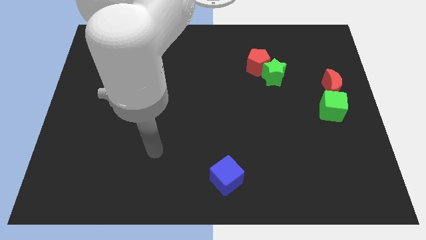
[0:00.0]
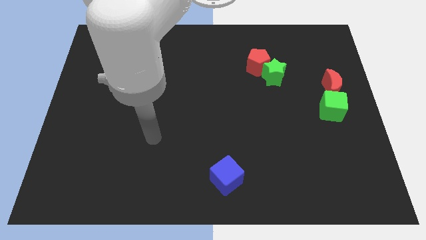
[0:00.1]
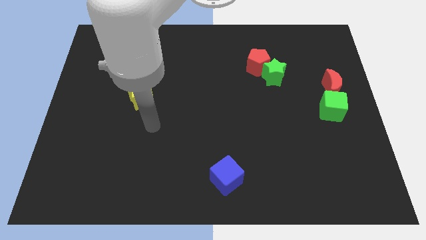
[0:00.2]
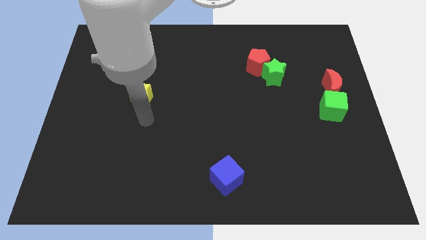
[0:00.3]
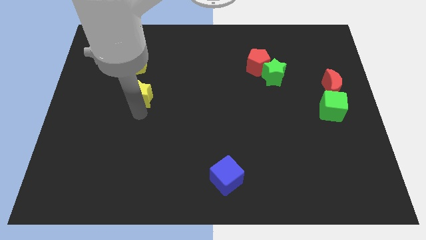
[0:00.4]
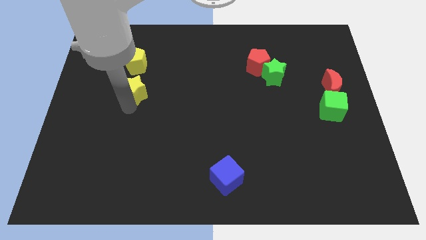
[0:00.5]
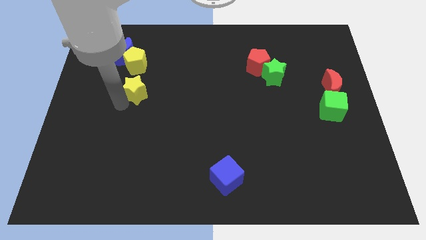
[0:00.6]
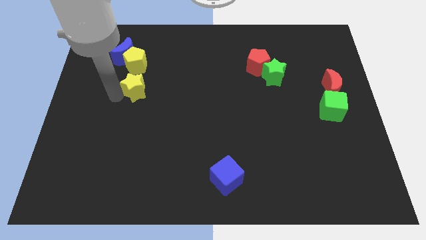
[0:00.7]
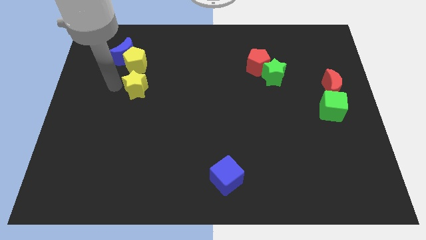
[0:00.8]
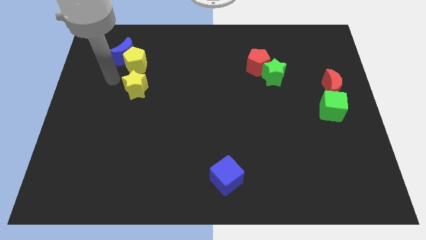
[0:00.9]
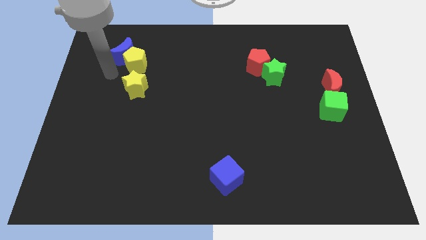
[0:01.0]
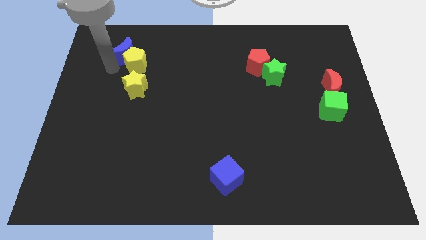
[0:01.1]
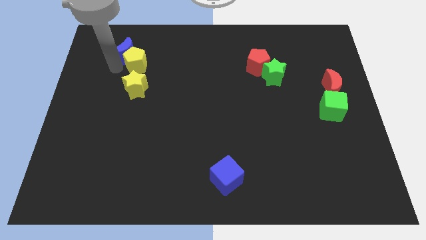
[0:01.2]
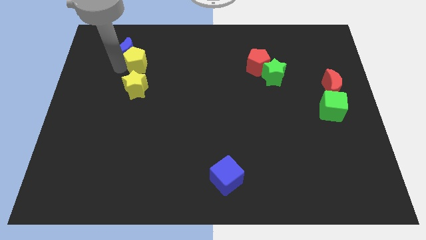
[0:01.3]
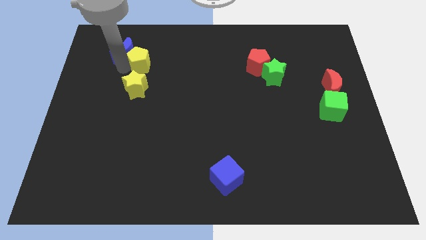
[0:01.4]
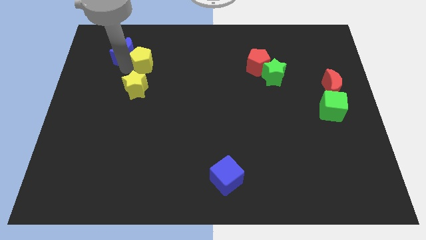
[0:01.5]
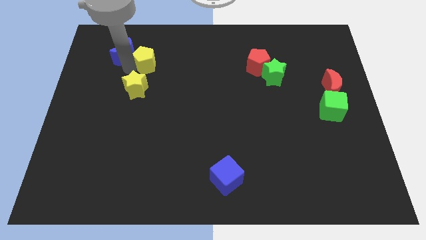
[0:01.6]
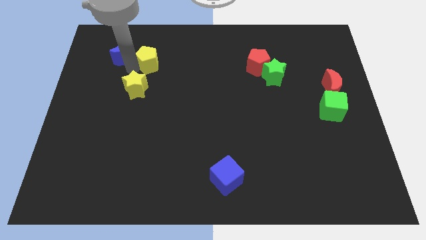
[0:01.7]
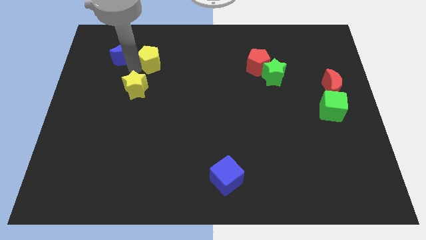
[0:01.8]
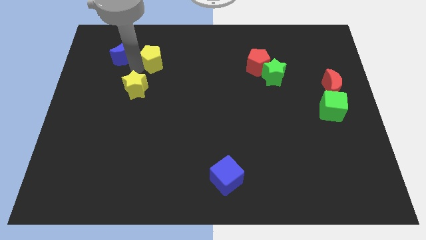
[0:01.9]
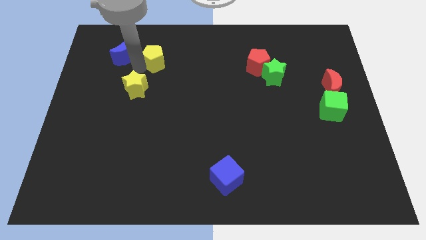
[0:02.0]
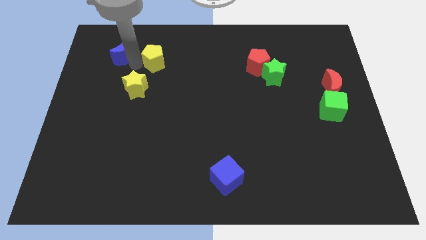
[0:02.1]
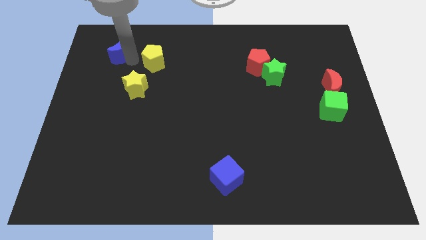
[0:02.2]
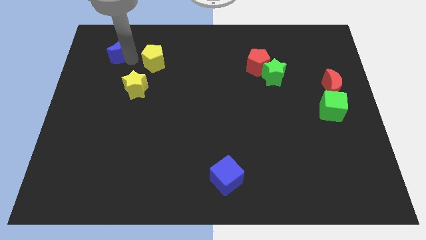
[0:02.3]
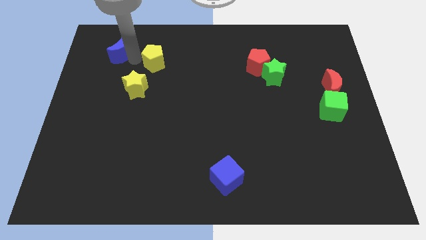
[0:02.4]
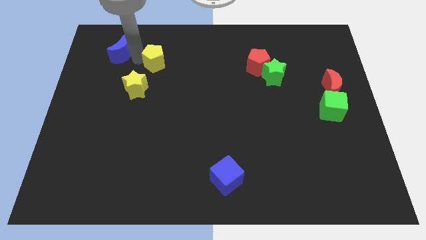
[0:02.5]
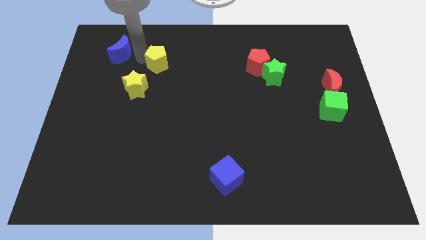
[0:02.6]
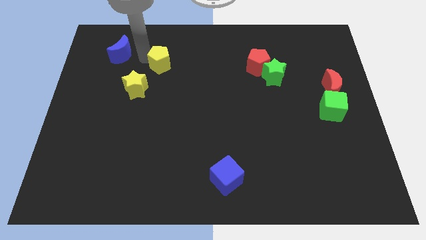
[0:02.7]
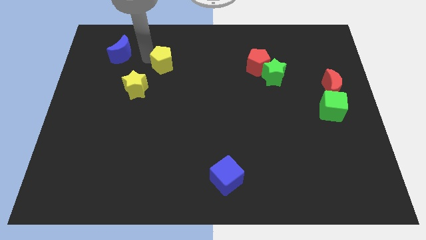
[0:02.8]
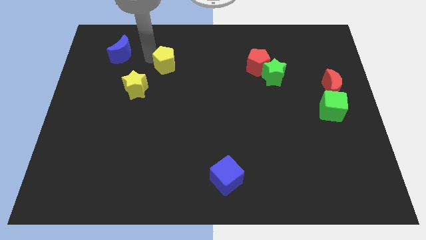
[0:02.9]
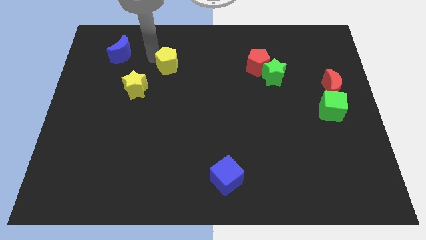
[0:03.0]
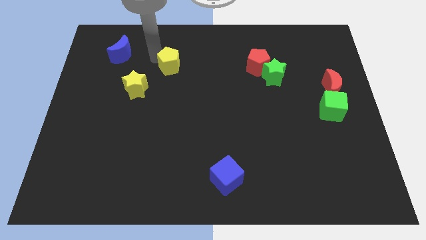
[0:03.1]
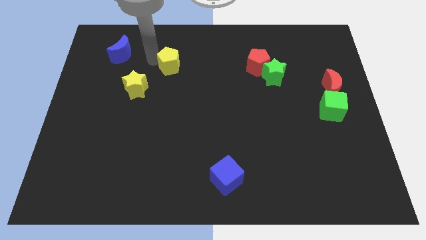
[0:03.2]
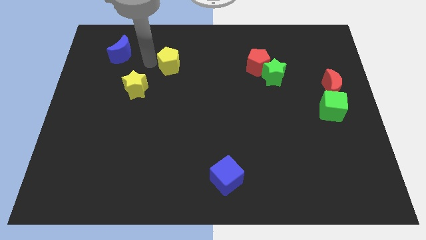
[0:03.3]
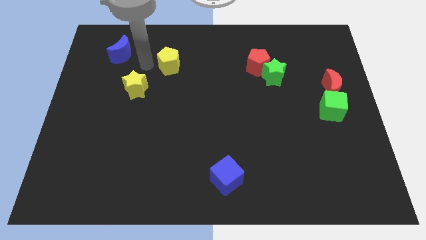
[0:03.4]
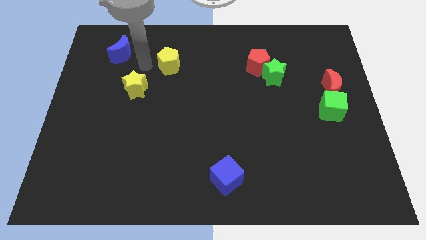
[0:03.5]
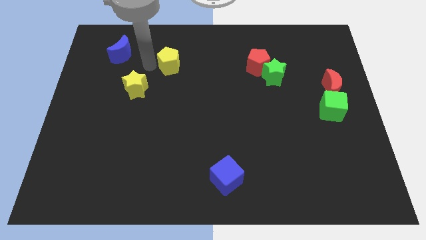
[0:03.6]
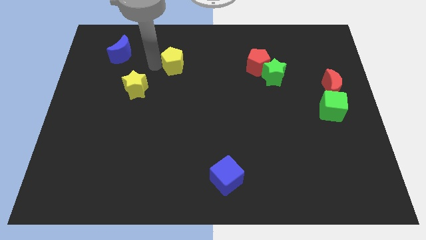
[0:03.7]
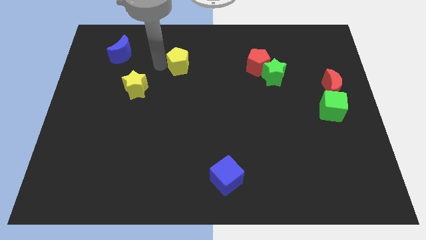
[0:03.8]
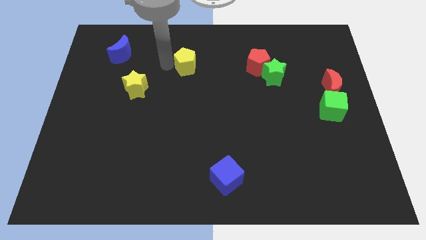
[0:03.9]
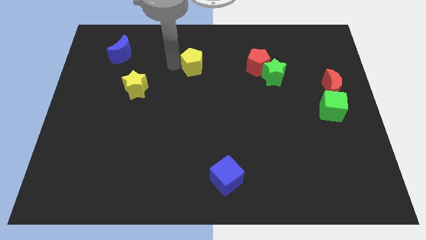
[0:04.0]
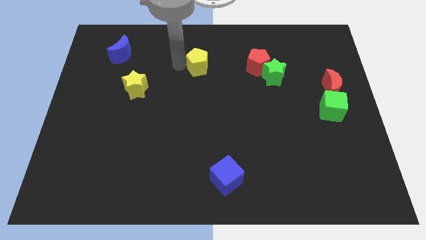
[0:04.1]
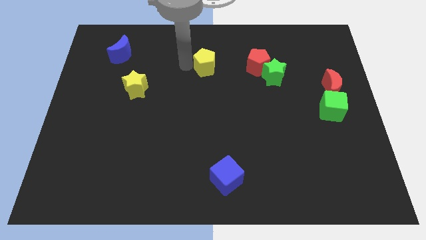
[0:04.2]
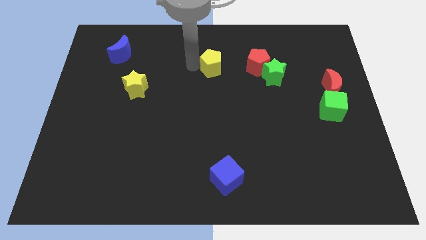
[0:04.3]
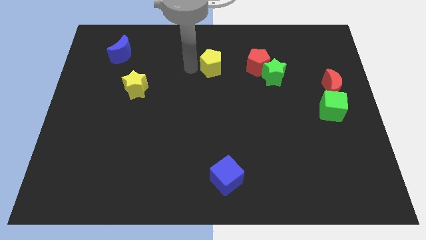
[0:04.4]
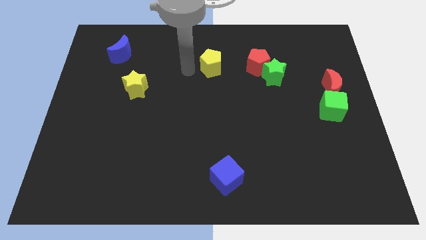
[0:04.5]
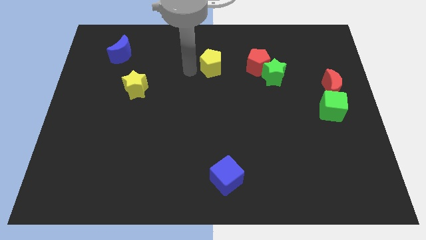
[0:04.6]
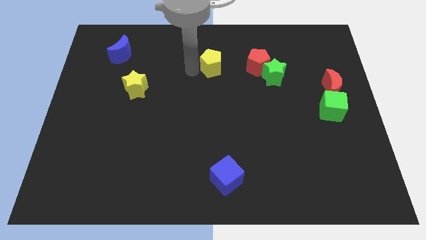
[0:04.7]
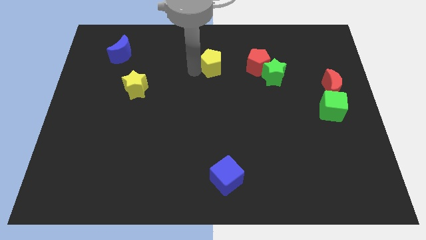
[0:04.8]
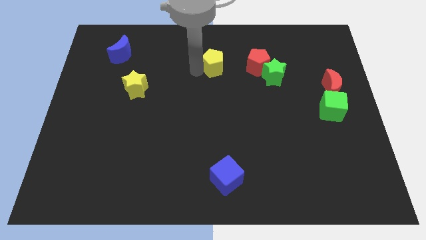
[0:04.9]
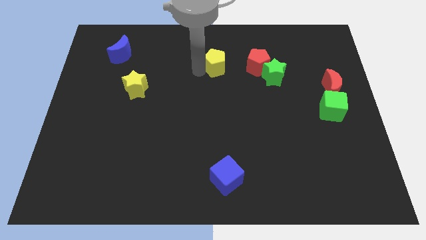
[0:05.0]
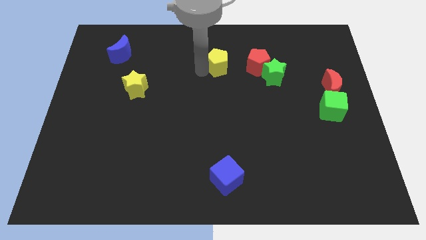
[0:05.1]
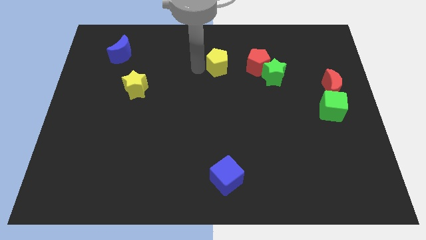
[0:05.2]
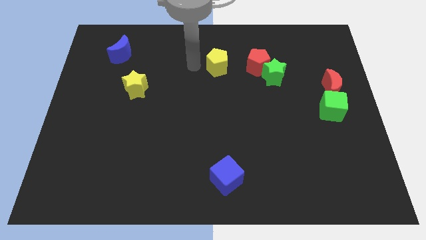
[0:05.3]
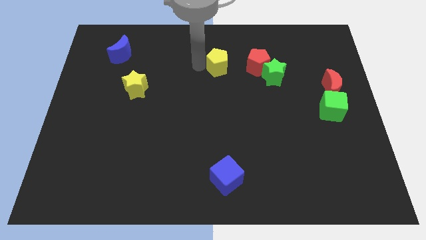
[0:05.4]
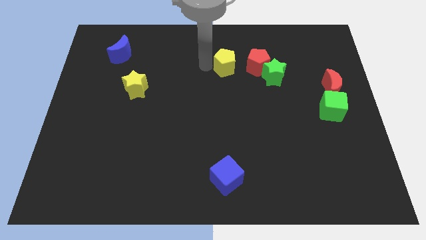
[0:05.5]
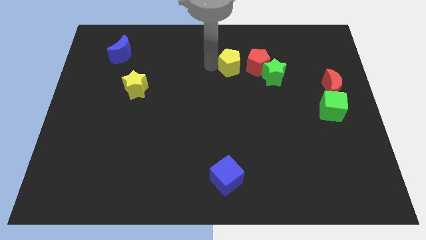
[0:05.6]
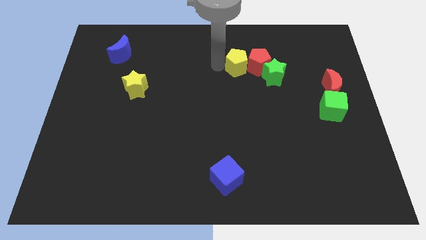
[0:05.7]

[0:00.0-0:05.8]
put the yellow pentagon close to the red pentagon

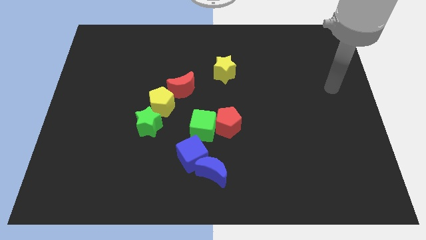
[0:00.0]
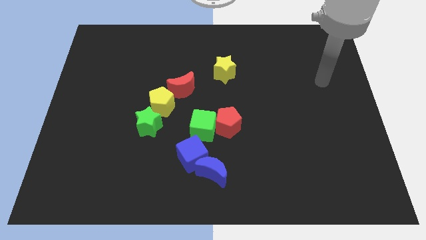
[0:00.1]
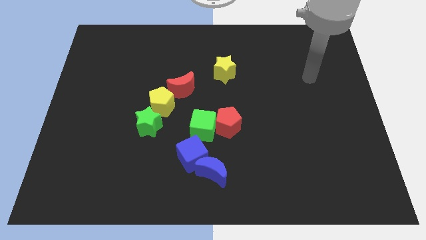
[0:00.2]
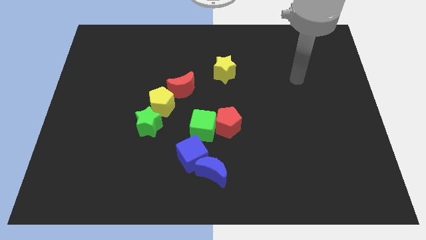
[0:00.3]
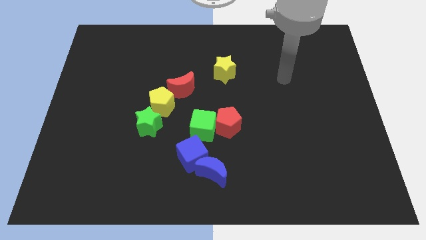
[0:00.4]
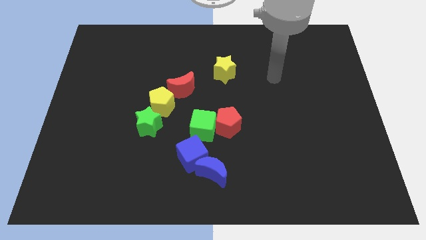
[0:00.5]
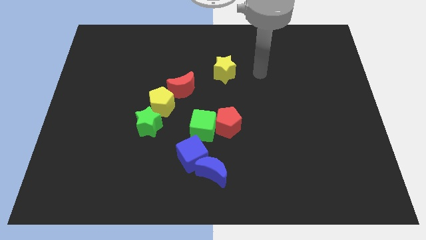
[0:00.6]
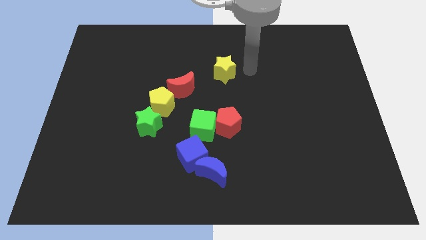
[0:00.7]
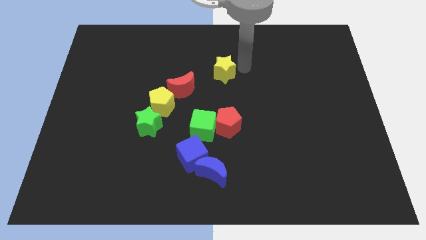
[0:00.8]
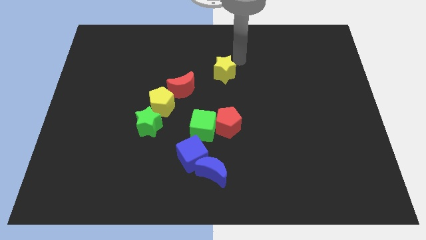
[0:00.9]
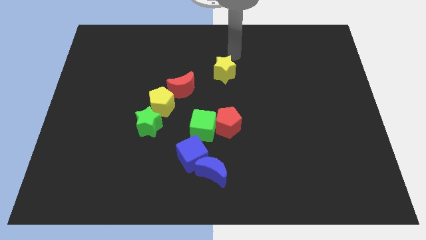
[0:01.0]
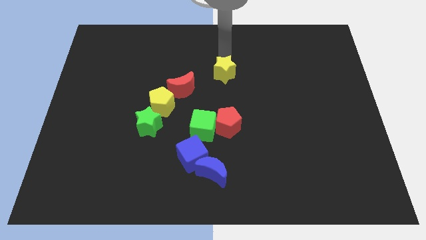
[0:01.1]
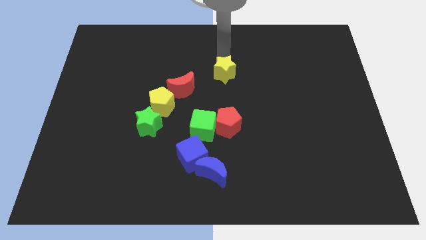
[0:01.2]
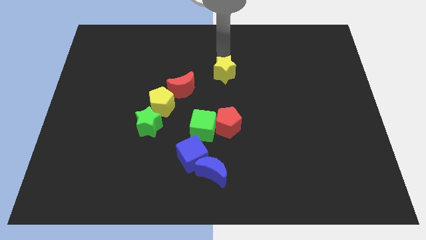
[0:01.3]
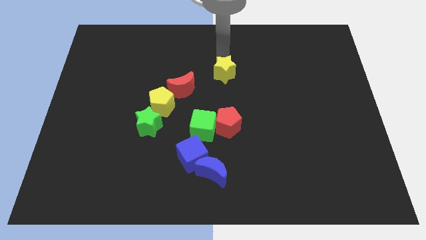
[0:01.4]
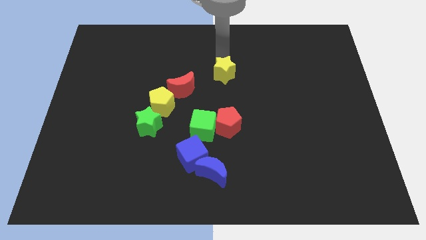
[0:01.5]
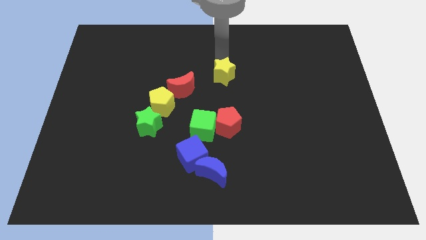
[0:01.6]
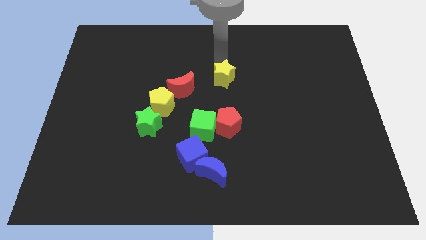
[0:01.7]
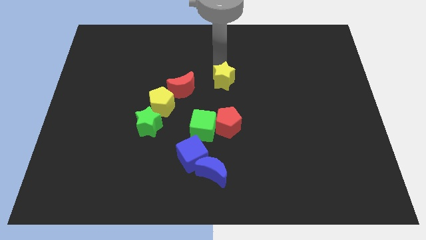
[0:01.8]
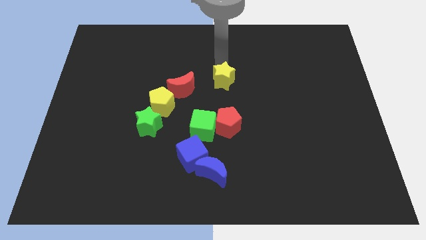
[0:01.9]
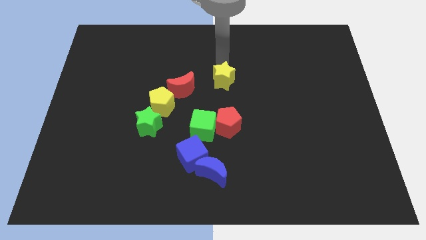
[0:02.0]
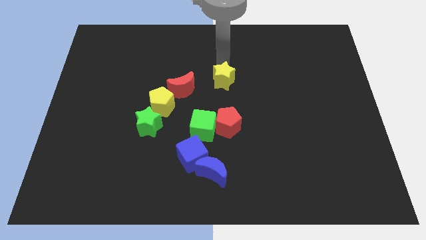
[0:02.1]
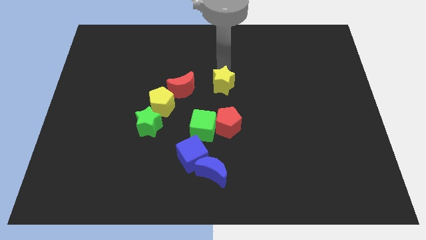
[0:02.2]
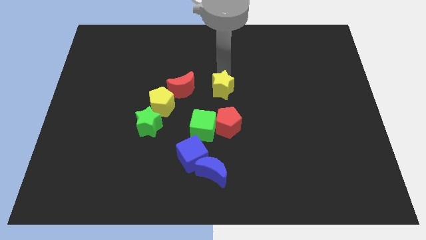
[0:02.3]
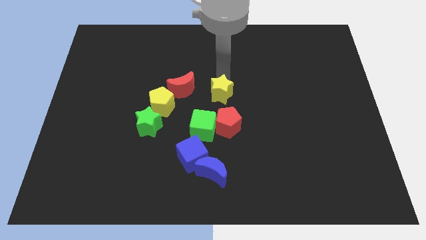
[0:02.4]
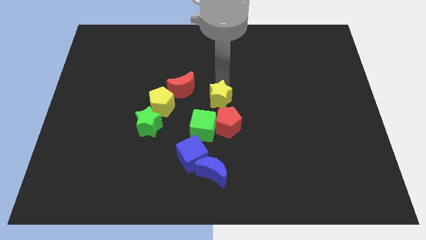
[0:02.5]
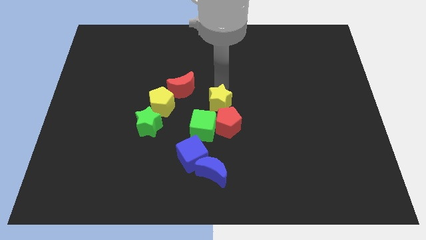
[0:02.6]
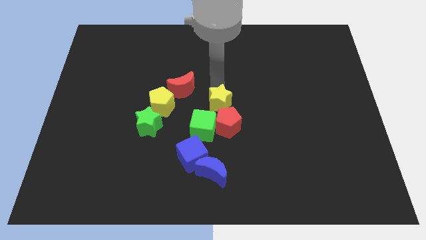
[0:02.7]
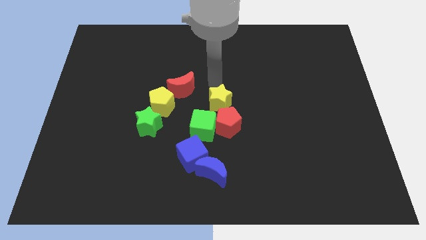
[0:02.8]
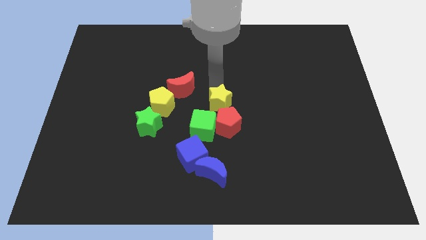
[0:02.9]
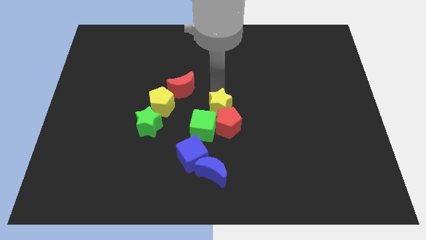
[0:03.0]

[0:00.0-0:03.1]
move the yellow star to the red pentagon
